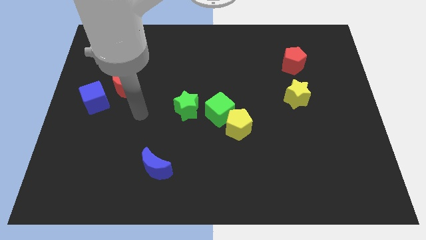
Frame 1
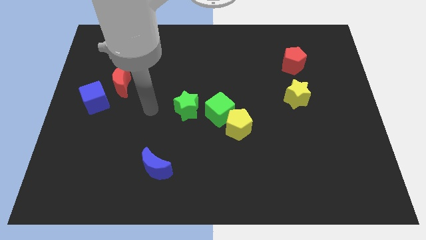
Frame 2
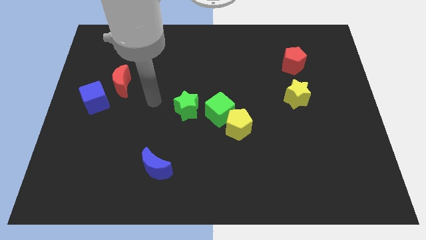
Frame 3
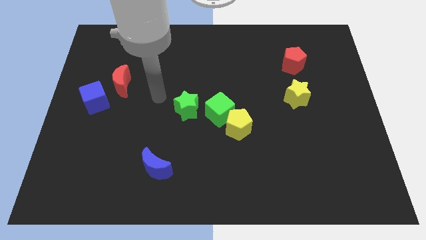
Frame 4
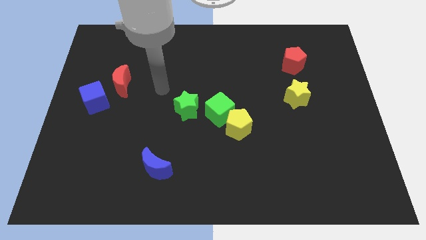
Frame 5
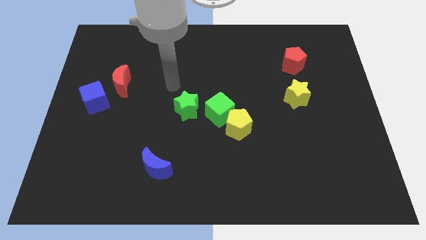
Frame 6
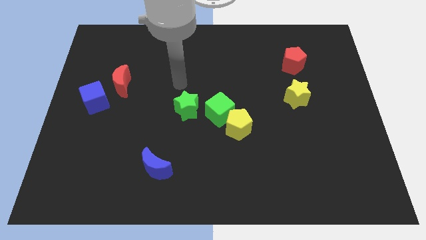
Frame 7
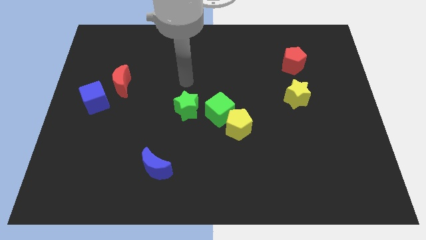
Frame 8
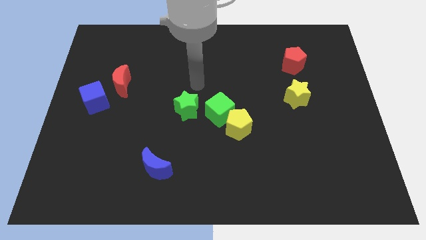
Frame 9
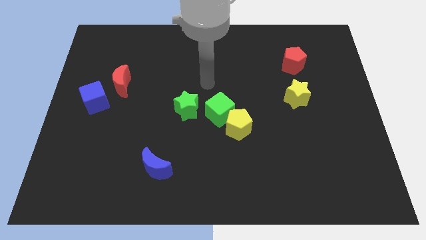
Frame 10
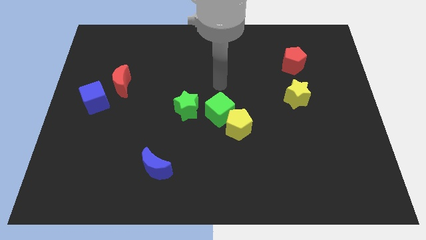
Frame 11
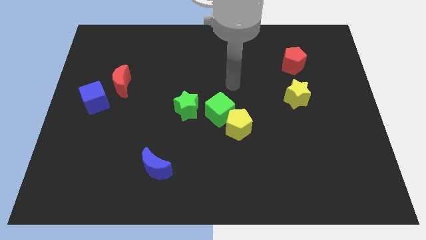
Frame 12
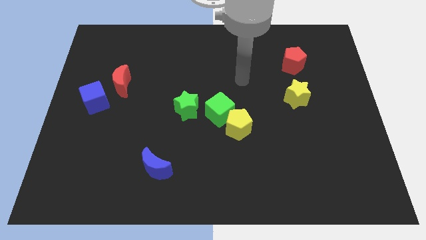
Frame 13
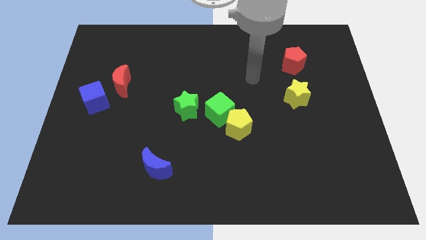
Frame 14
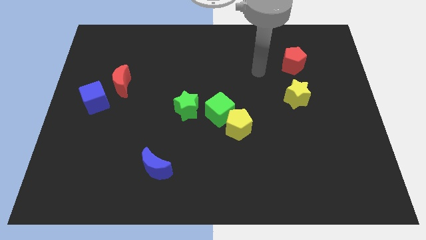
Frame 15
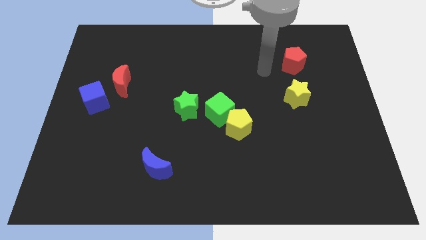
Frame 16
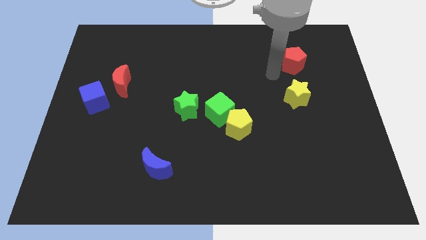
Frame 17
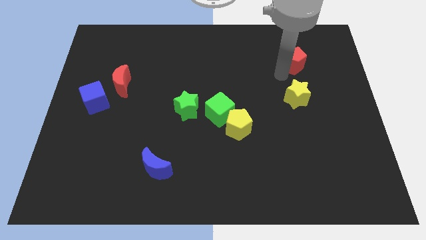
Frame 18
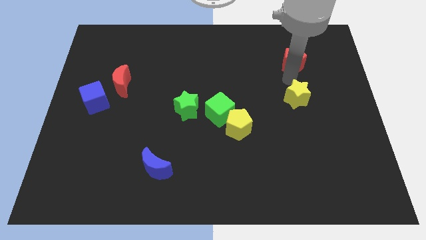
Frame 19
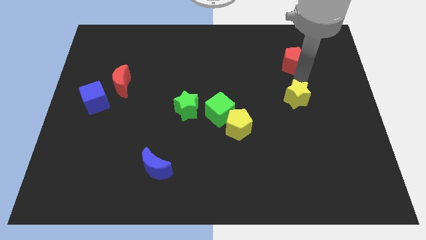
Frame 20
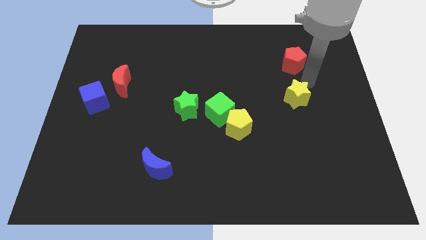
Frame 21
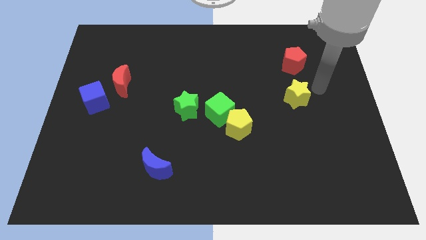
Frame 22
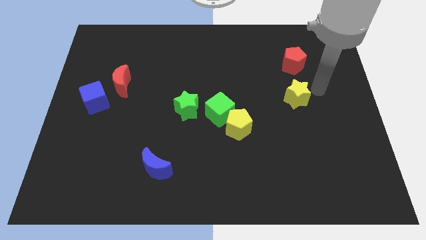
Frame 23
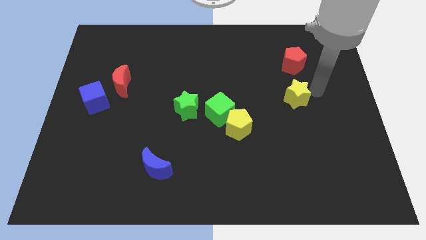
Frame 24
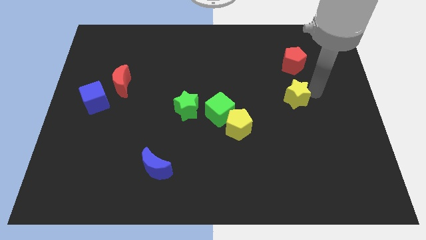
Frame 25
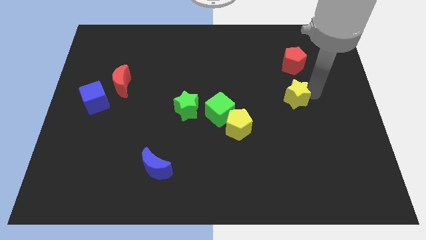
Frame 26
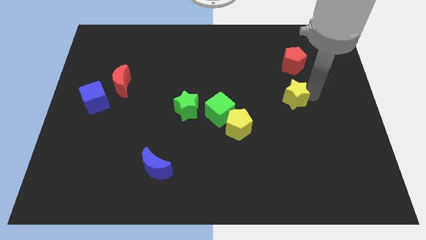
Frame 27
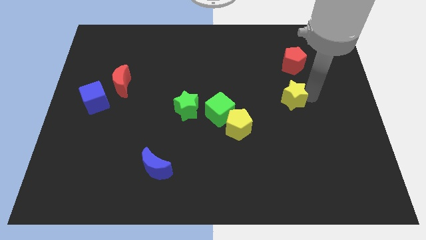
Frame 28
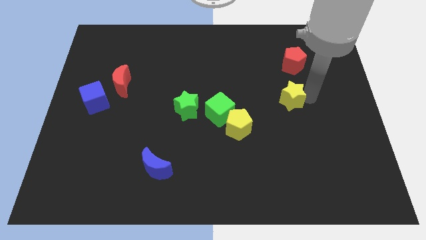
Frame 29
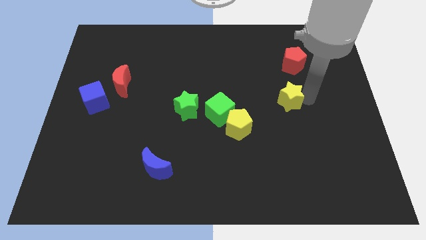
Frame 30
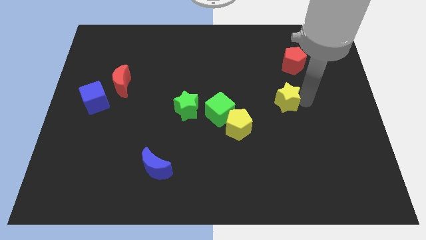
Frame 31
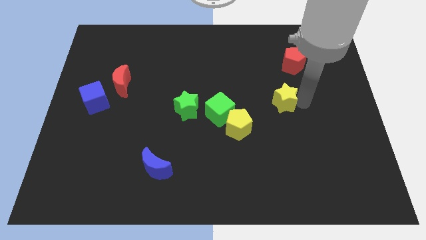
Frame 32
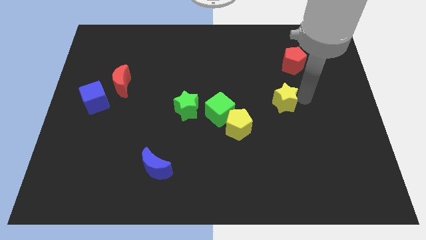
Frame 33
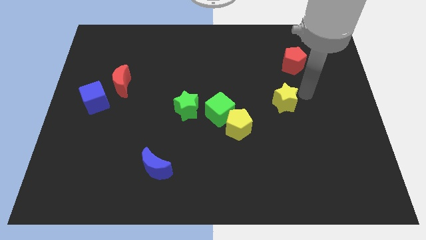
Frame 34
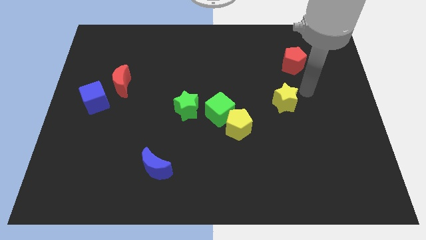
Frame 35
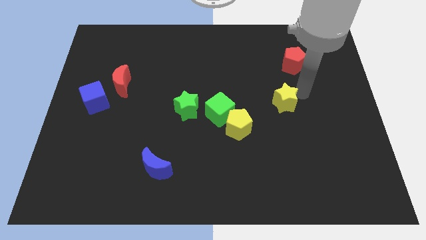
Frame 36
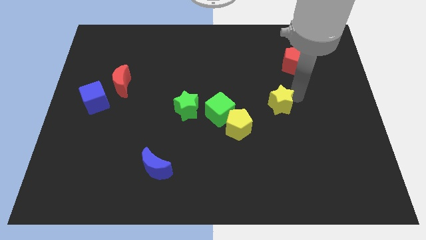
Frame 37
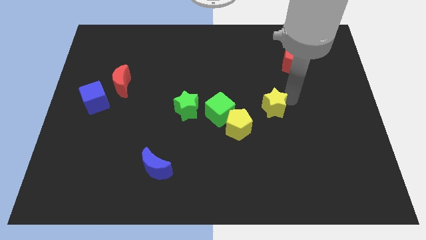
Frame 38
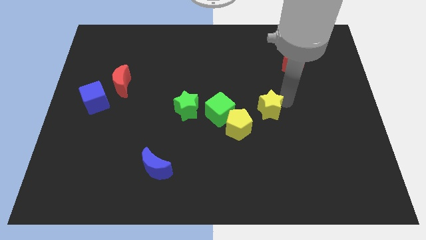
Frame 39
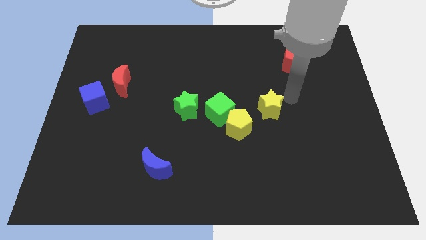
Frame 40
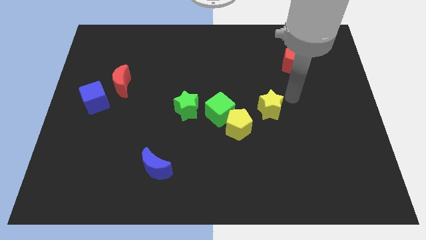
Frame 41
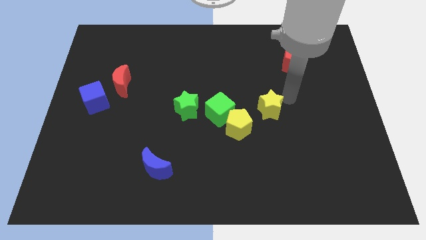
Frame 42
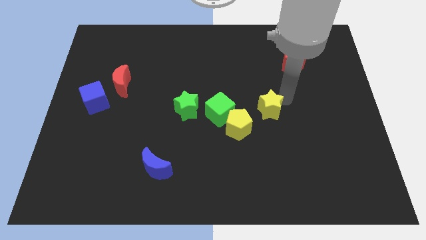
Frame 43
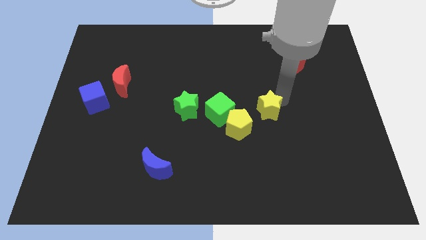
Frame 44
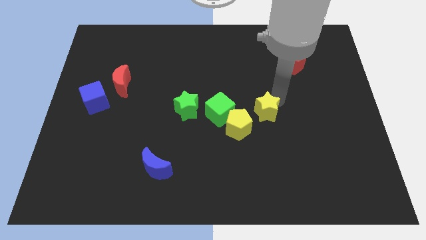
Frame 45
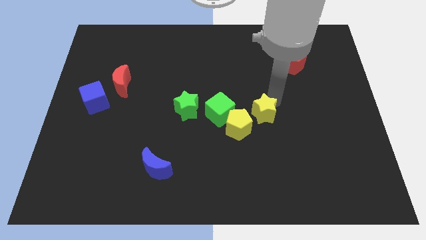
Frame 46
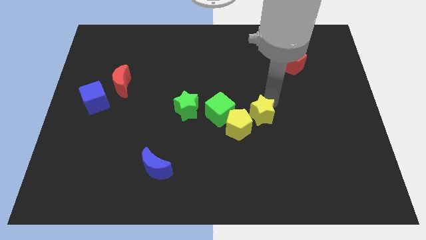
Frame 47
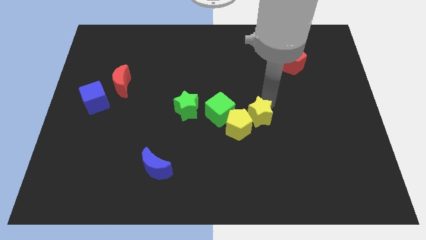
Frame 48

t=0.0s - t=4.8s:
slide the yellow star to the yellow pentagon

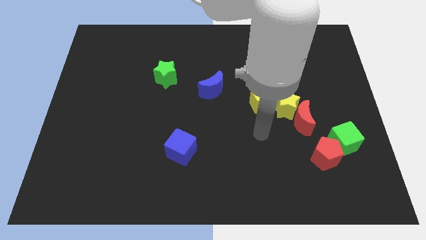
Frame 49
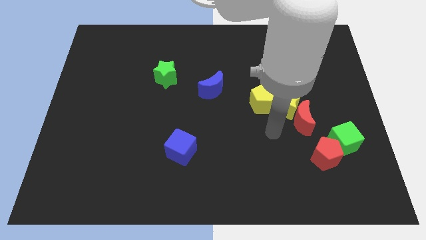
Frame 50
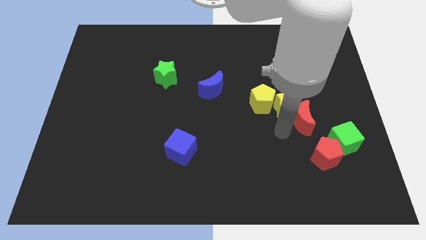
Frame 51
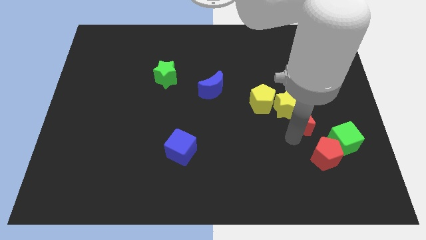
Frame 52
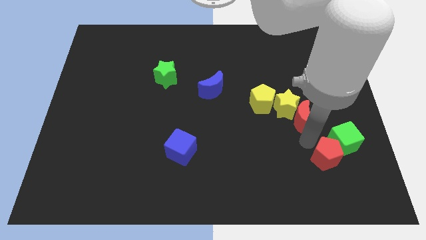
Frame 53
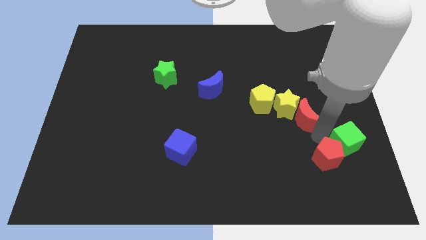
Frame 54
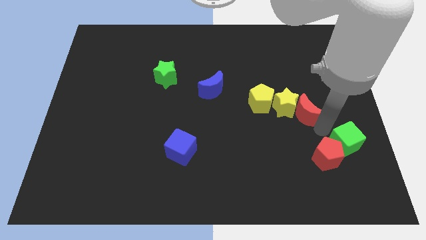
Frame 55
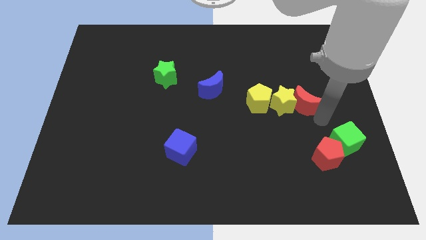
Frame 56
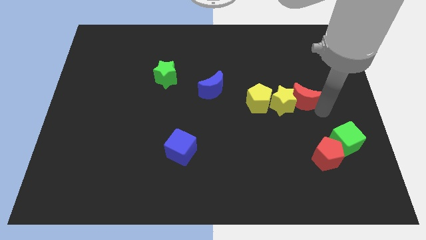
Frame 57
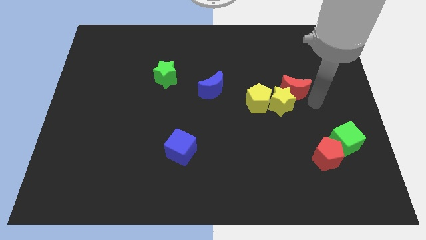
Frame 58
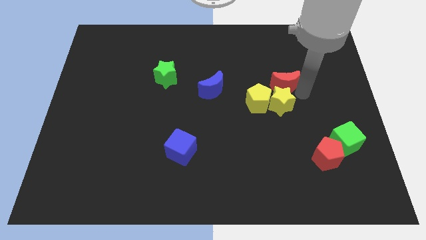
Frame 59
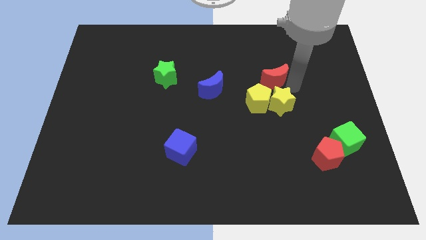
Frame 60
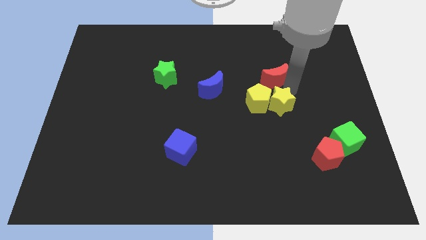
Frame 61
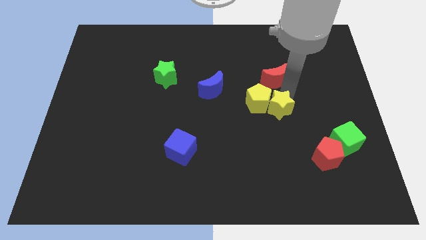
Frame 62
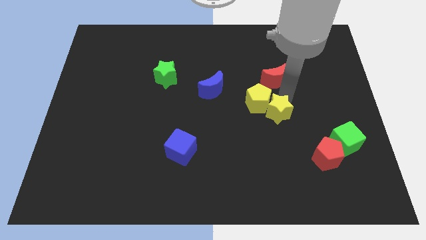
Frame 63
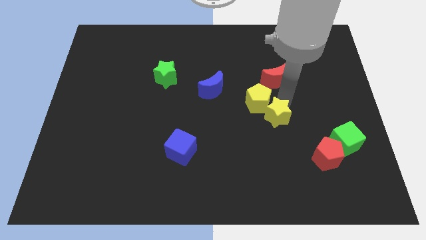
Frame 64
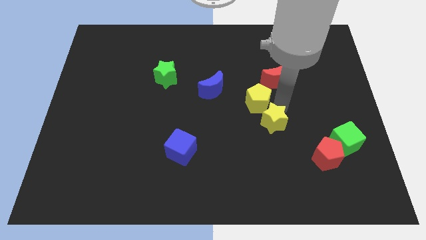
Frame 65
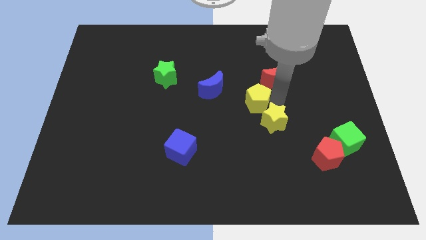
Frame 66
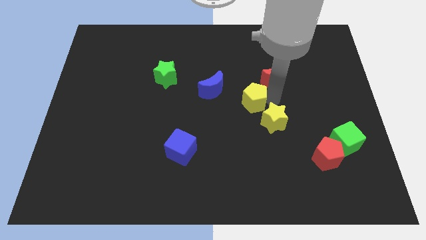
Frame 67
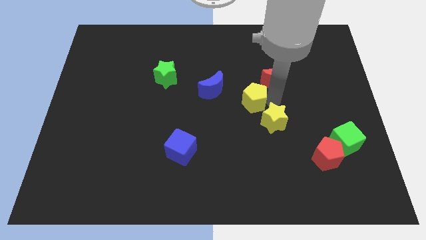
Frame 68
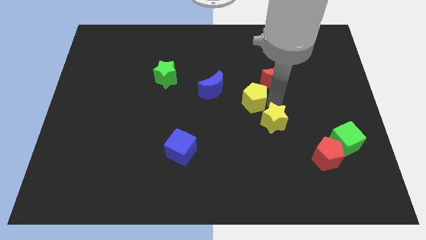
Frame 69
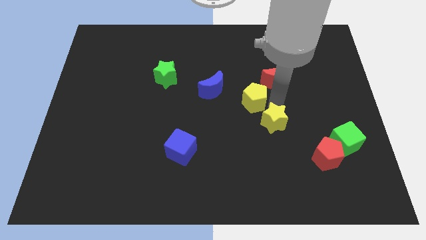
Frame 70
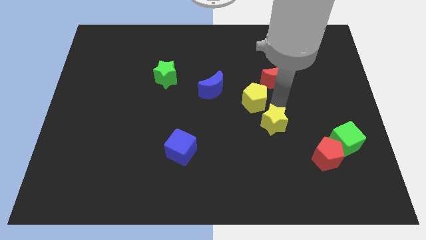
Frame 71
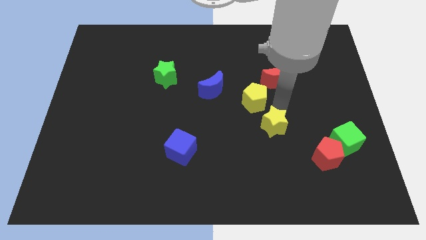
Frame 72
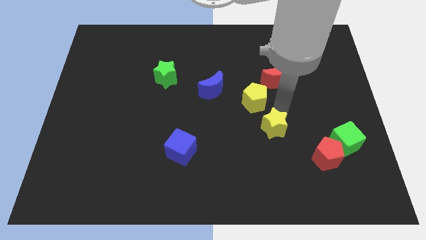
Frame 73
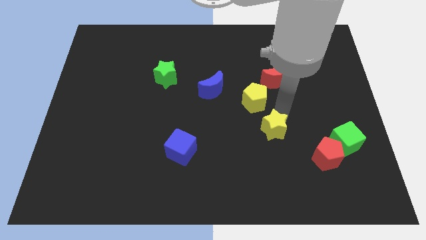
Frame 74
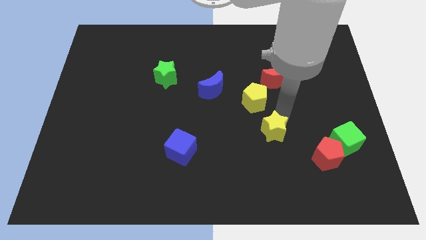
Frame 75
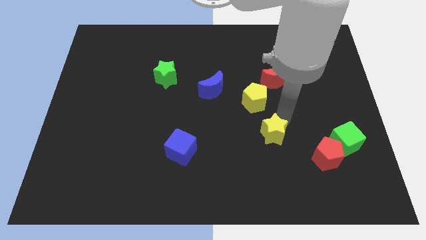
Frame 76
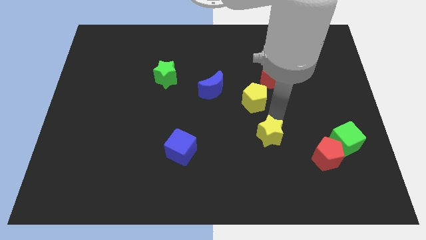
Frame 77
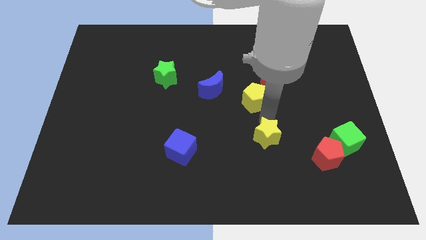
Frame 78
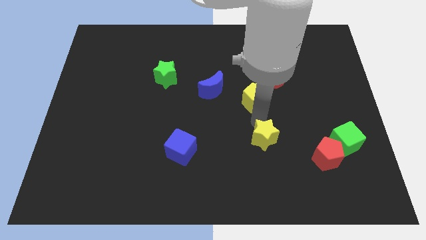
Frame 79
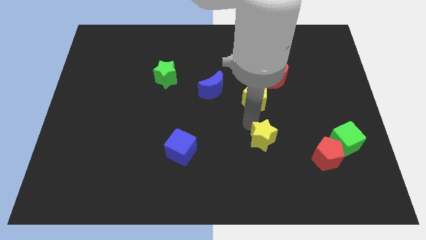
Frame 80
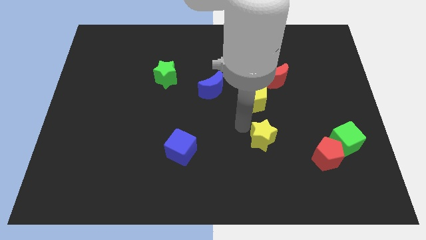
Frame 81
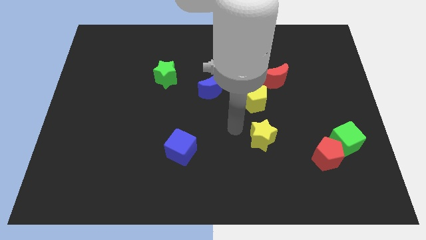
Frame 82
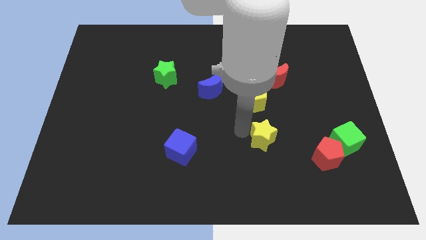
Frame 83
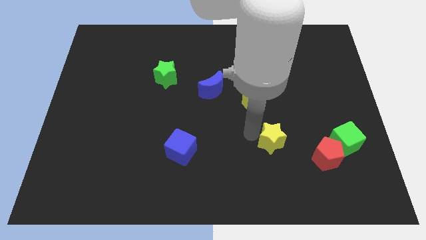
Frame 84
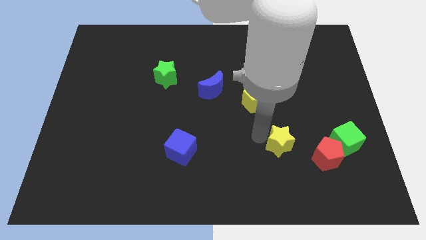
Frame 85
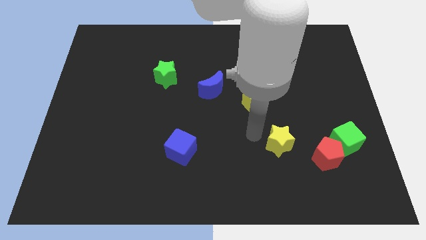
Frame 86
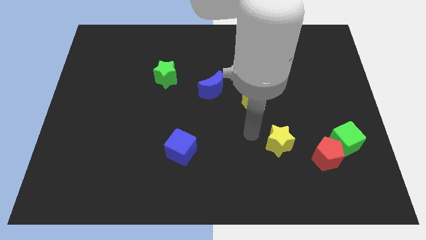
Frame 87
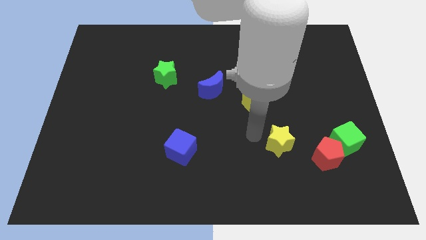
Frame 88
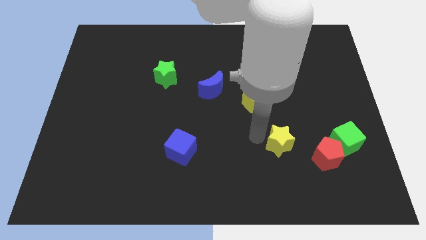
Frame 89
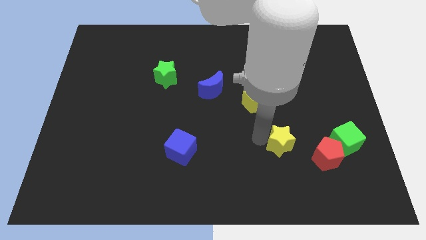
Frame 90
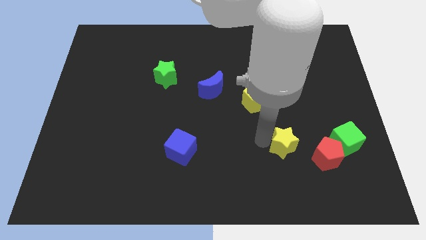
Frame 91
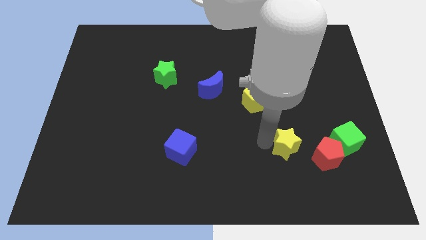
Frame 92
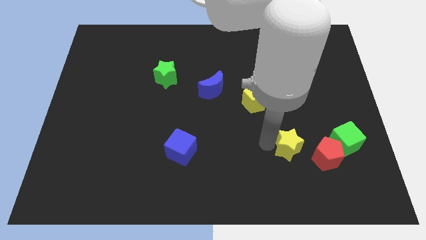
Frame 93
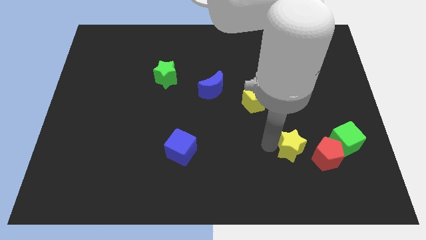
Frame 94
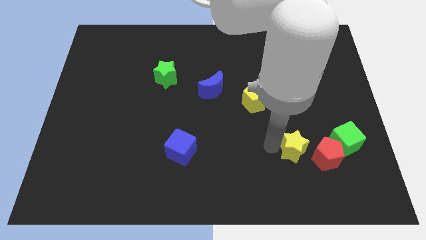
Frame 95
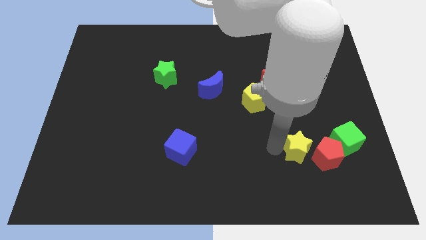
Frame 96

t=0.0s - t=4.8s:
put the yellow star close to the red pentagon
